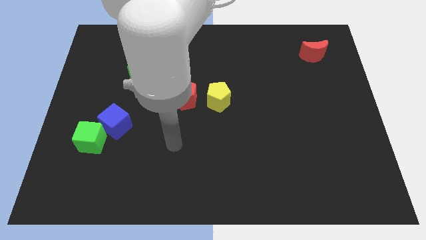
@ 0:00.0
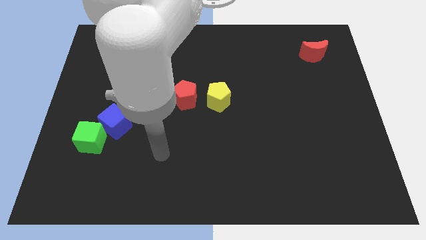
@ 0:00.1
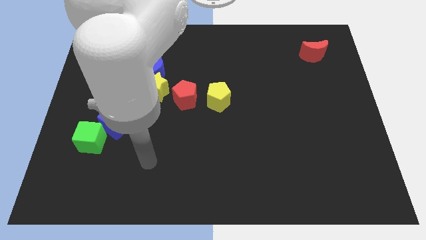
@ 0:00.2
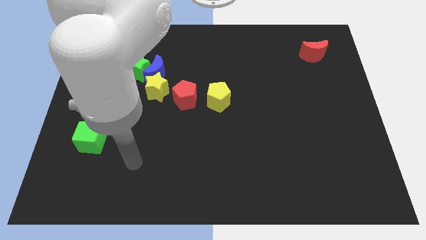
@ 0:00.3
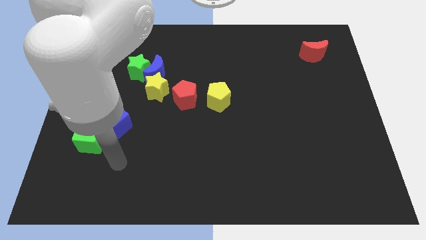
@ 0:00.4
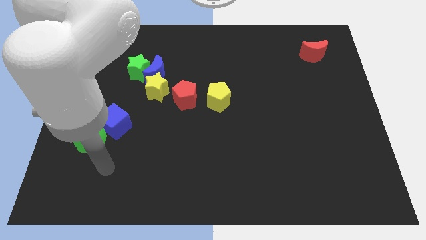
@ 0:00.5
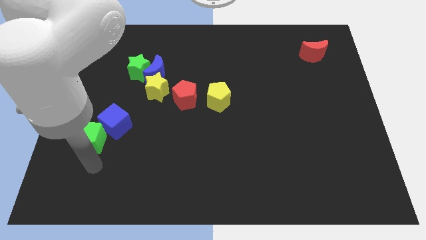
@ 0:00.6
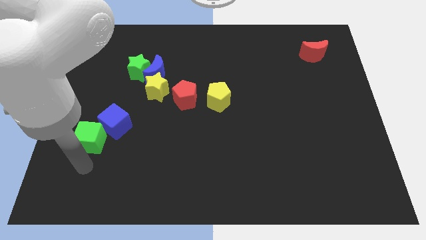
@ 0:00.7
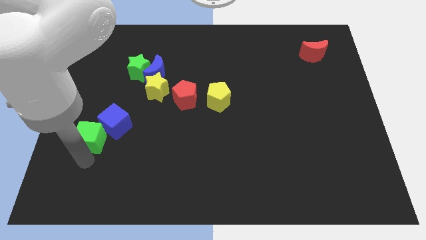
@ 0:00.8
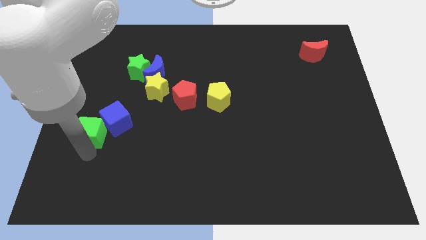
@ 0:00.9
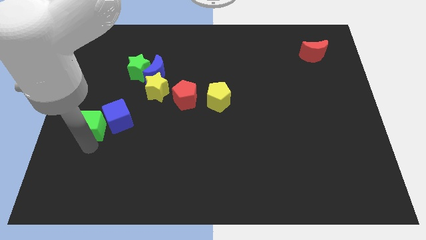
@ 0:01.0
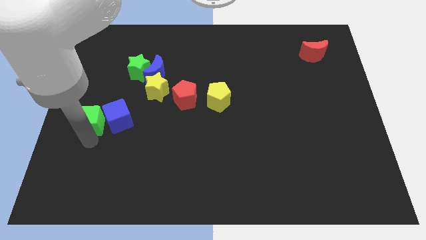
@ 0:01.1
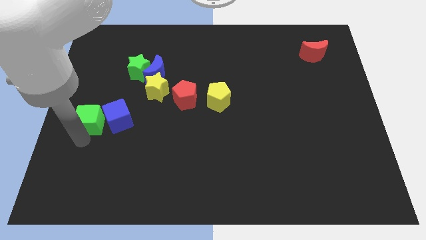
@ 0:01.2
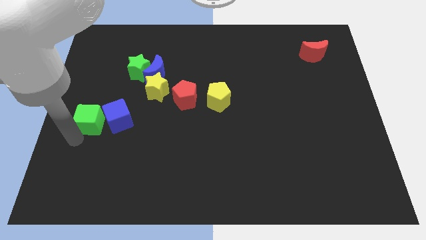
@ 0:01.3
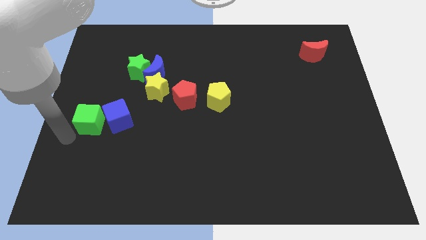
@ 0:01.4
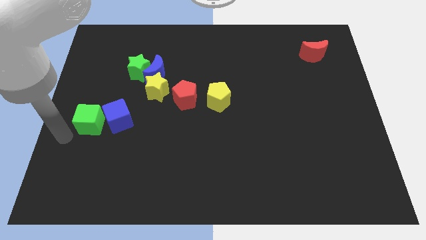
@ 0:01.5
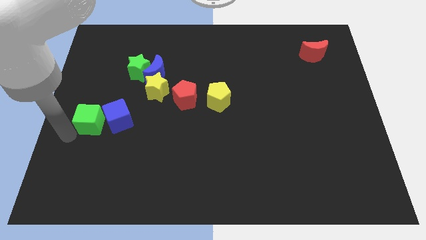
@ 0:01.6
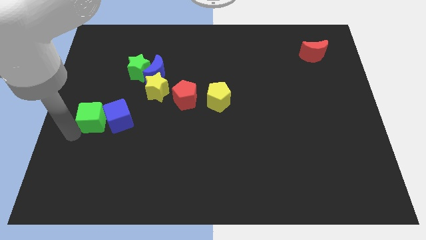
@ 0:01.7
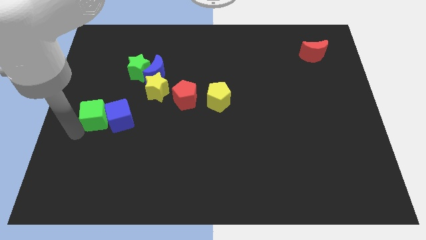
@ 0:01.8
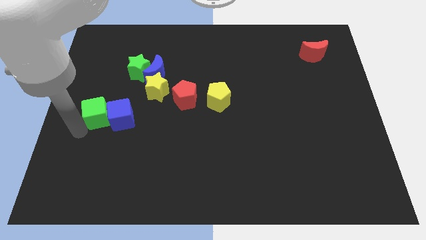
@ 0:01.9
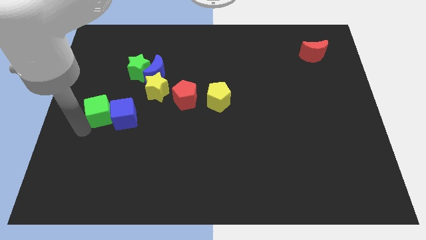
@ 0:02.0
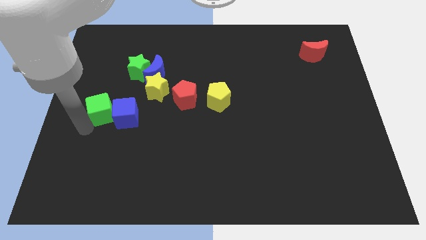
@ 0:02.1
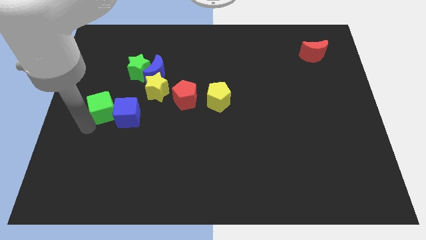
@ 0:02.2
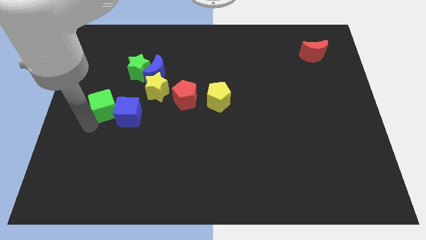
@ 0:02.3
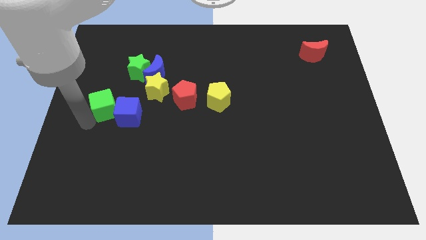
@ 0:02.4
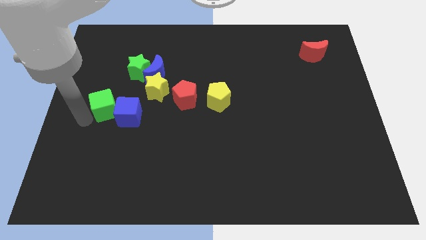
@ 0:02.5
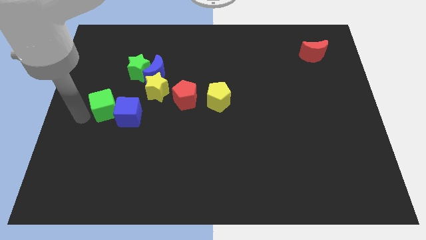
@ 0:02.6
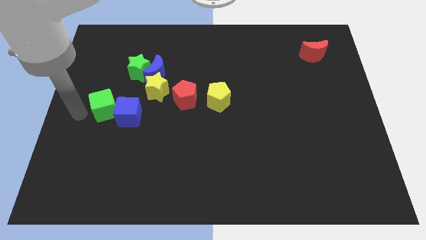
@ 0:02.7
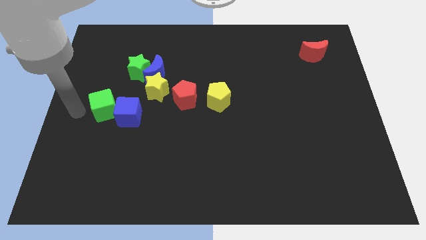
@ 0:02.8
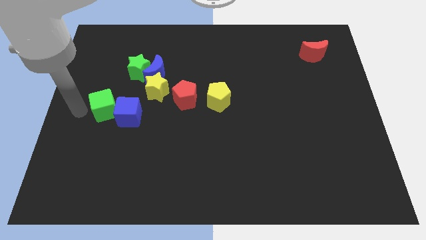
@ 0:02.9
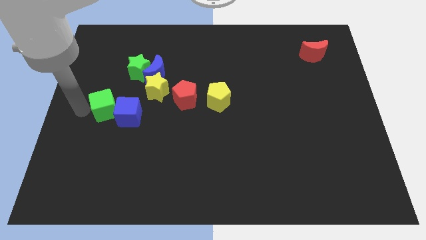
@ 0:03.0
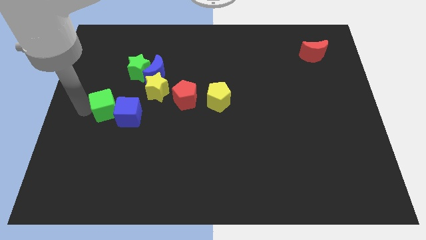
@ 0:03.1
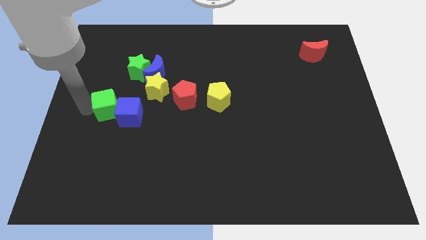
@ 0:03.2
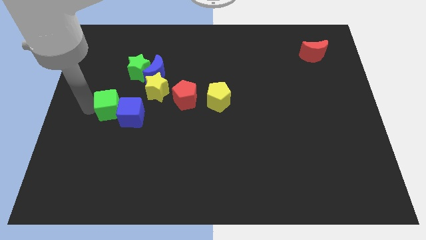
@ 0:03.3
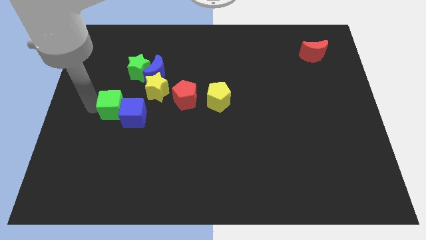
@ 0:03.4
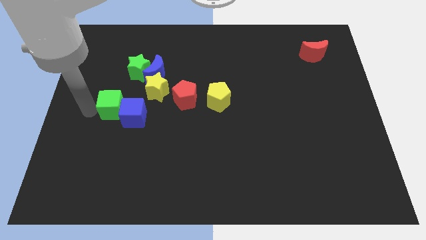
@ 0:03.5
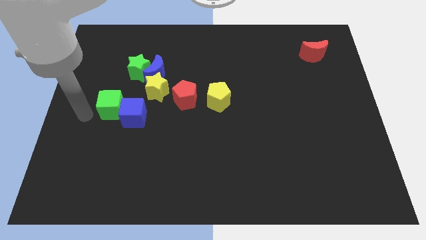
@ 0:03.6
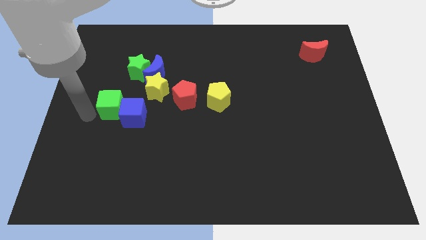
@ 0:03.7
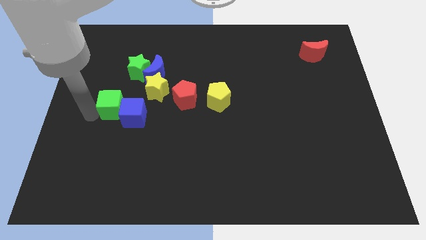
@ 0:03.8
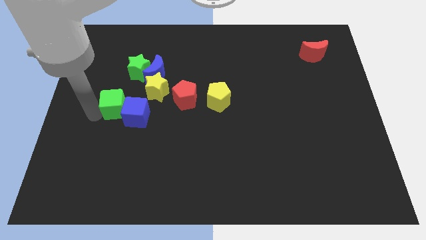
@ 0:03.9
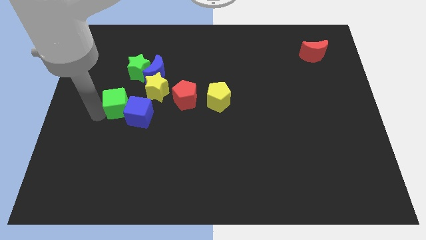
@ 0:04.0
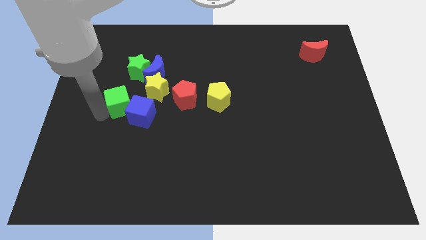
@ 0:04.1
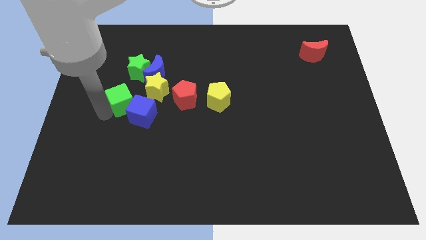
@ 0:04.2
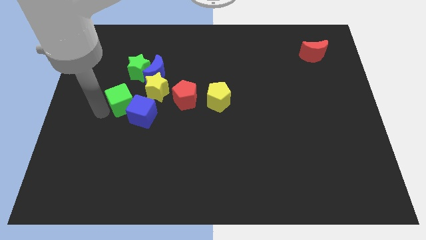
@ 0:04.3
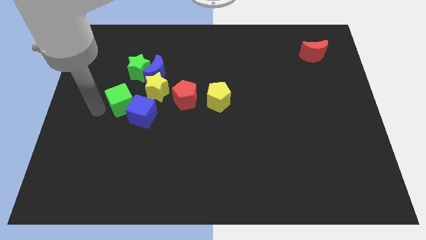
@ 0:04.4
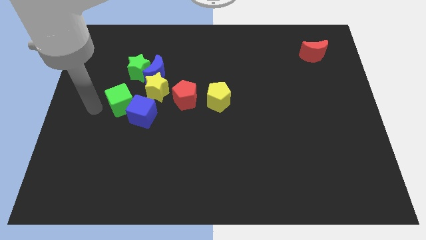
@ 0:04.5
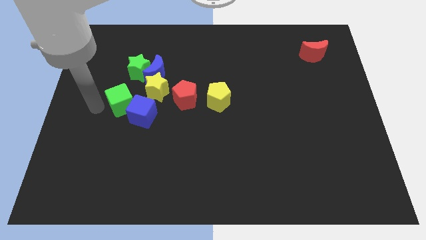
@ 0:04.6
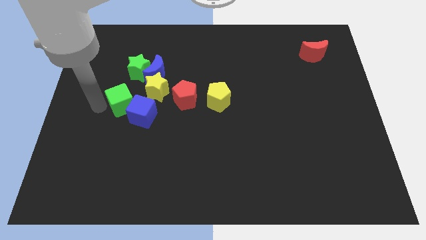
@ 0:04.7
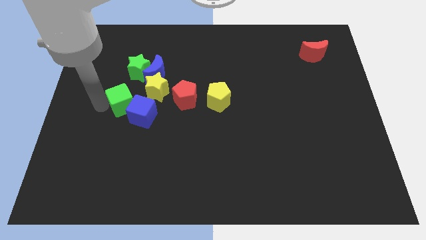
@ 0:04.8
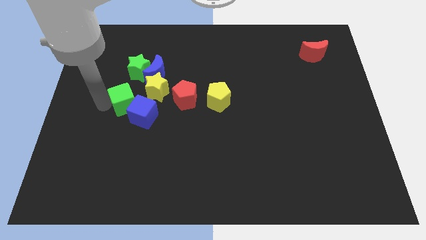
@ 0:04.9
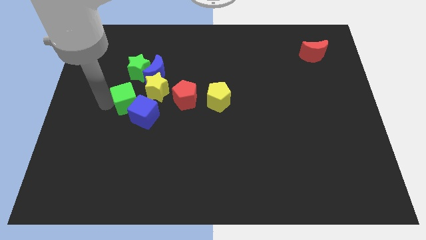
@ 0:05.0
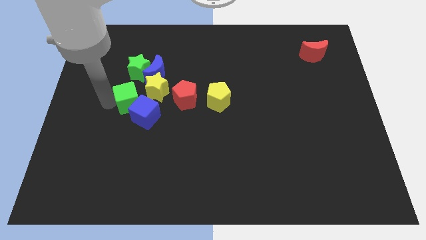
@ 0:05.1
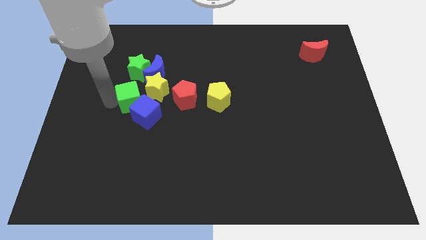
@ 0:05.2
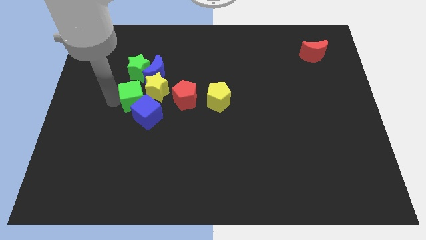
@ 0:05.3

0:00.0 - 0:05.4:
slide the green cube towards the yellow star

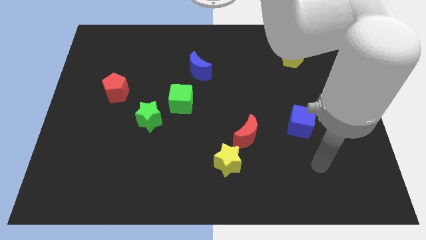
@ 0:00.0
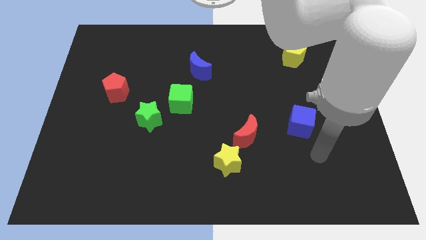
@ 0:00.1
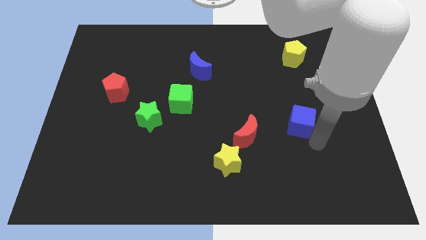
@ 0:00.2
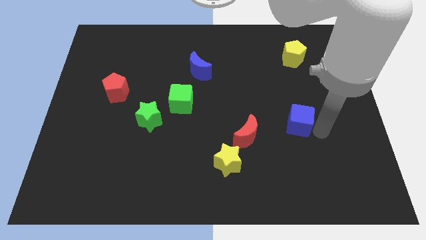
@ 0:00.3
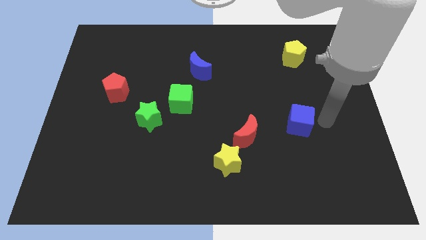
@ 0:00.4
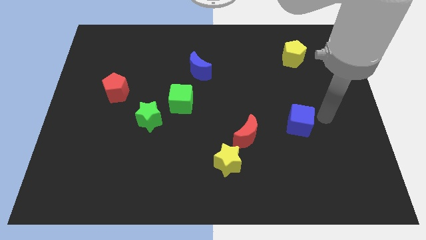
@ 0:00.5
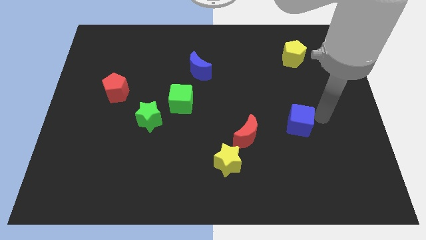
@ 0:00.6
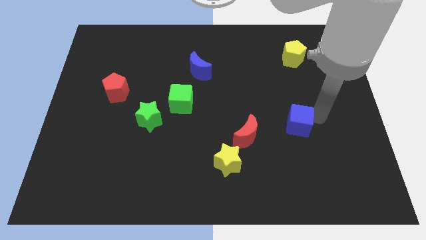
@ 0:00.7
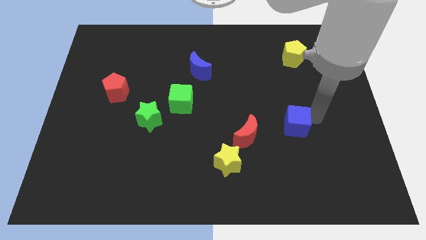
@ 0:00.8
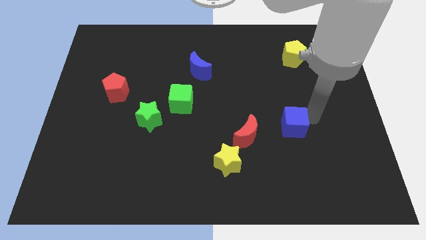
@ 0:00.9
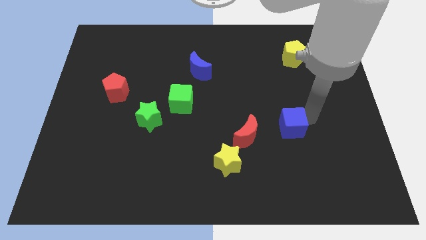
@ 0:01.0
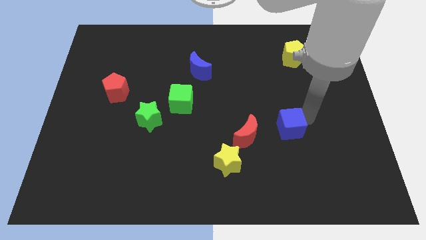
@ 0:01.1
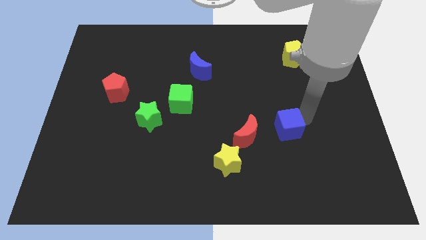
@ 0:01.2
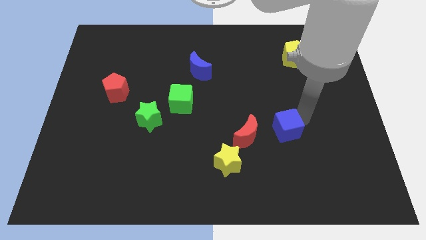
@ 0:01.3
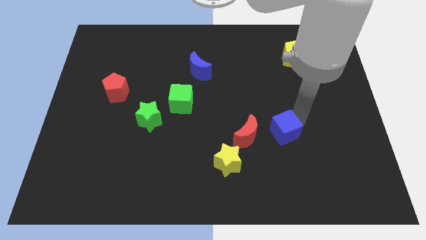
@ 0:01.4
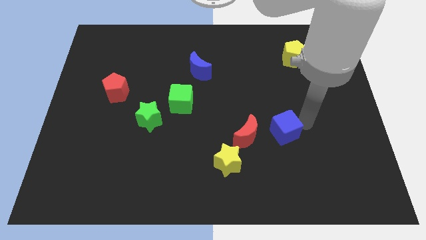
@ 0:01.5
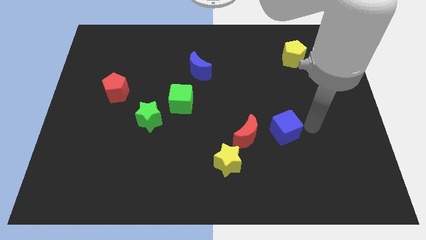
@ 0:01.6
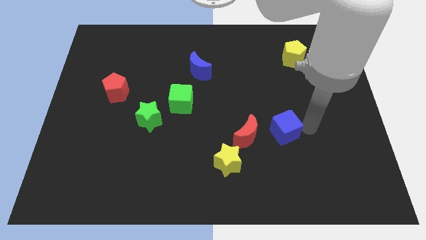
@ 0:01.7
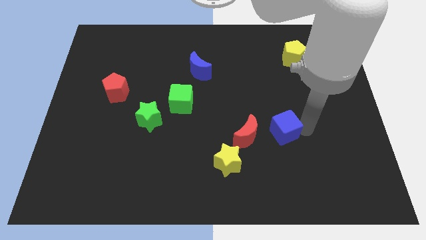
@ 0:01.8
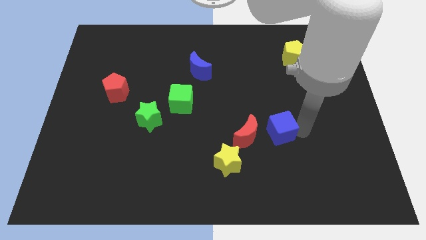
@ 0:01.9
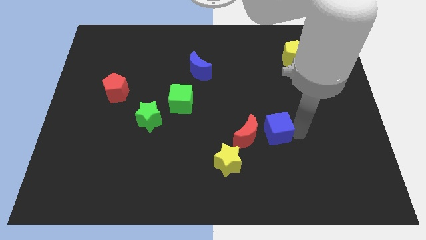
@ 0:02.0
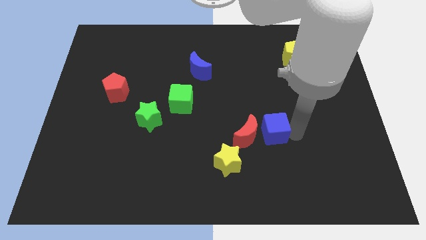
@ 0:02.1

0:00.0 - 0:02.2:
put the blue cube towards the red moon
